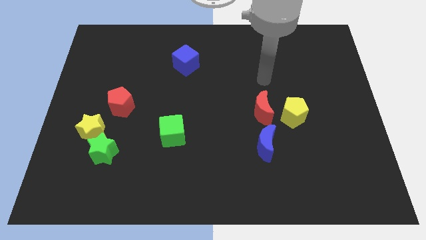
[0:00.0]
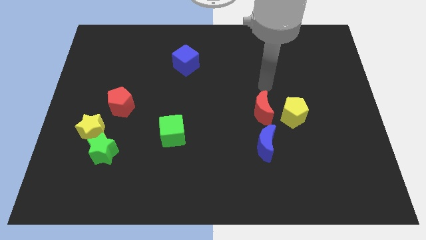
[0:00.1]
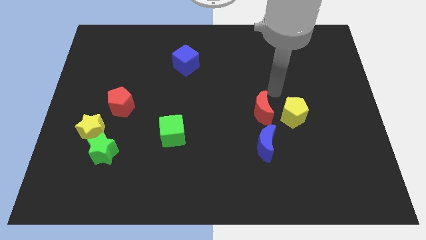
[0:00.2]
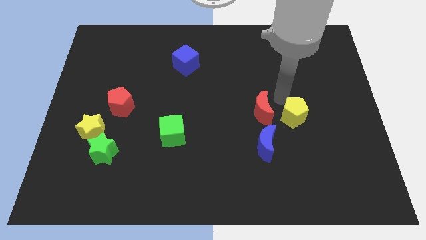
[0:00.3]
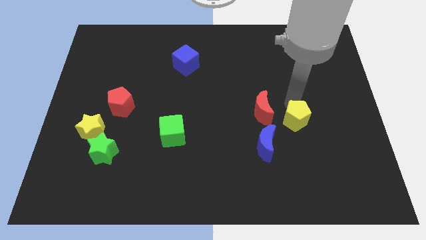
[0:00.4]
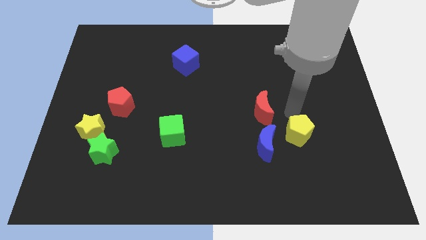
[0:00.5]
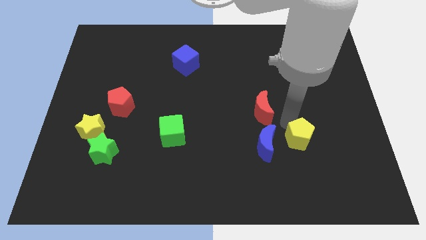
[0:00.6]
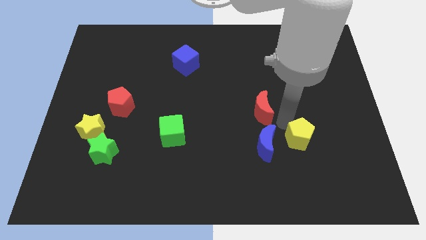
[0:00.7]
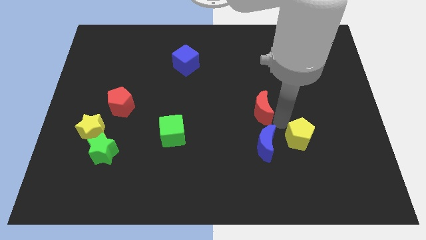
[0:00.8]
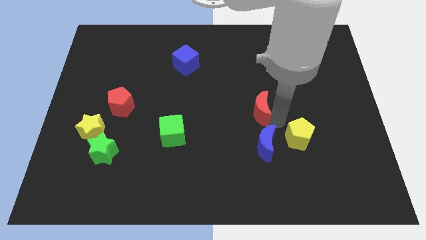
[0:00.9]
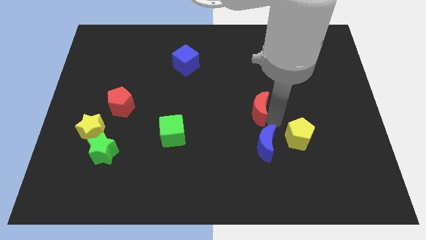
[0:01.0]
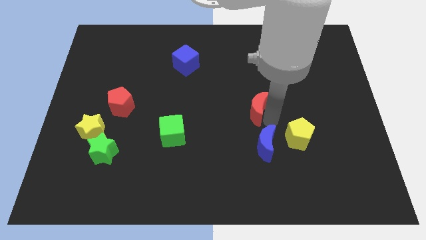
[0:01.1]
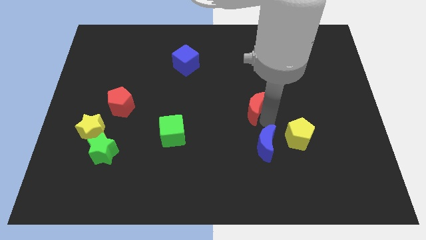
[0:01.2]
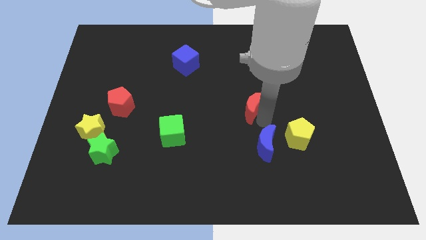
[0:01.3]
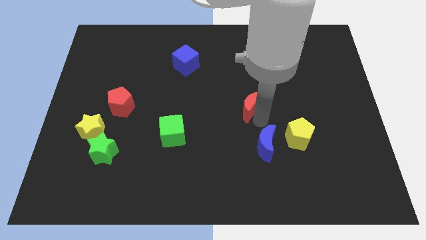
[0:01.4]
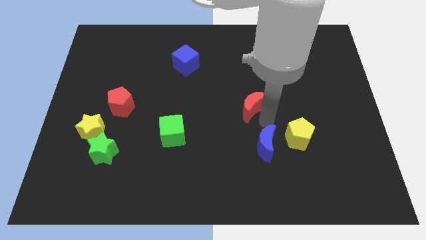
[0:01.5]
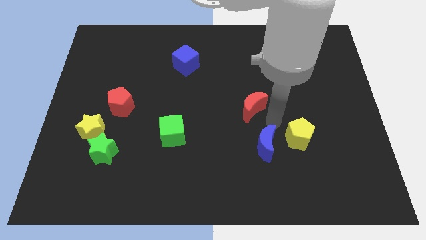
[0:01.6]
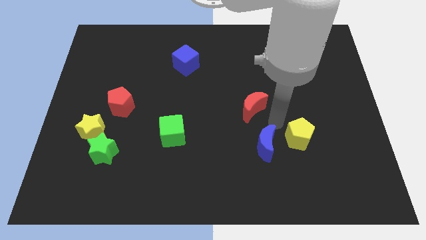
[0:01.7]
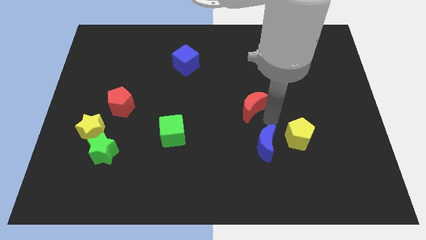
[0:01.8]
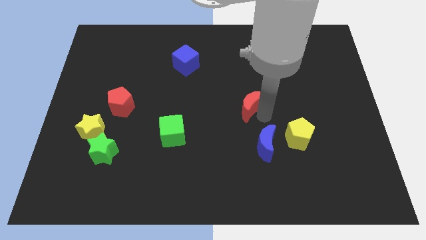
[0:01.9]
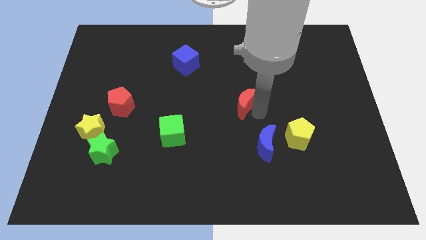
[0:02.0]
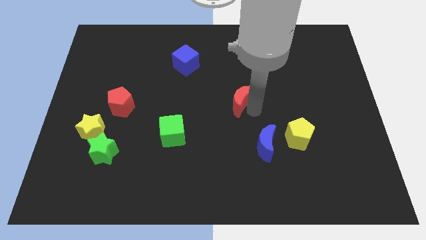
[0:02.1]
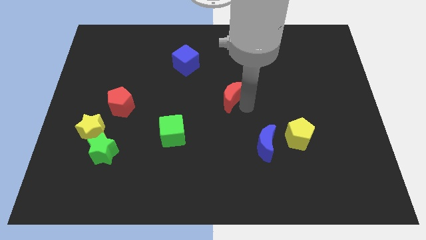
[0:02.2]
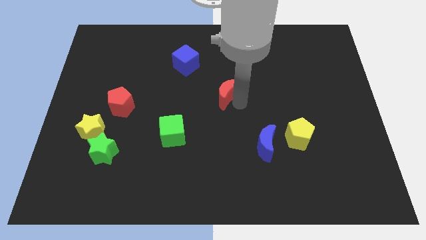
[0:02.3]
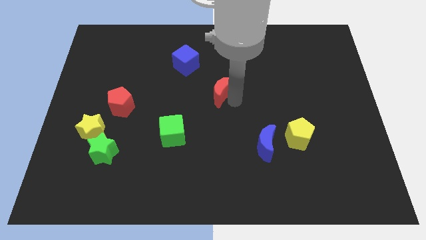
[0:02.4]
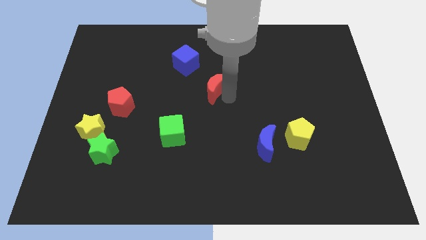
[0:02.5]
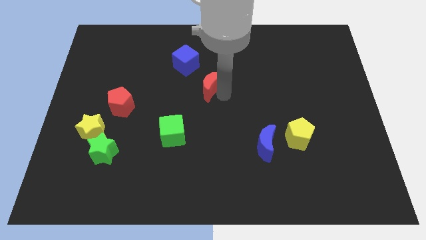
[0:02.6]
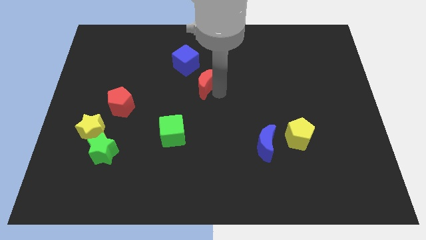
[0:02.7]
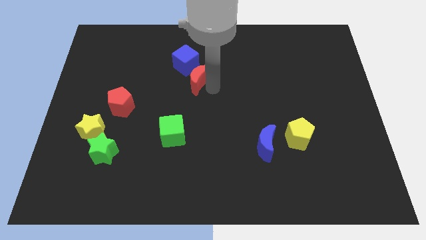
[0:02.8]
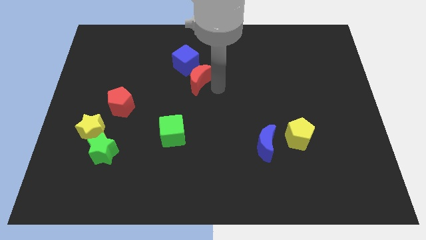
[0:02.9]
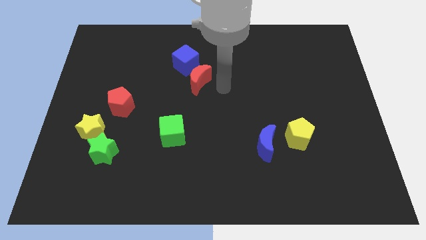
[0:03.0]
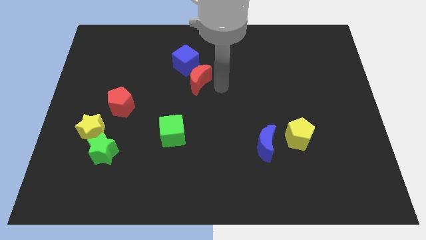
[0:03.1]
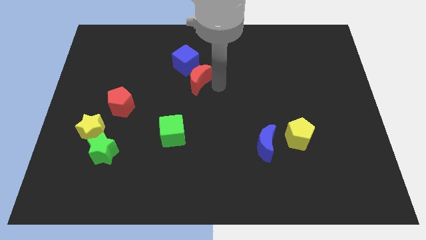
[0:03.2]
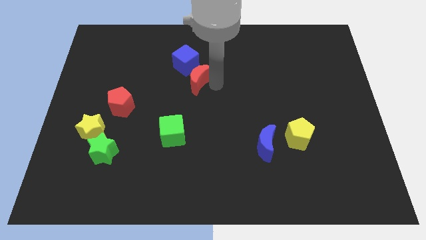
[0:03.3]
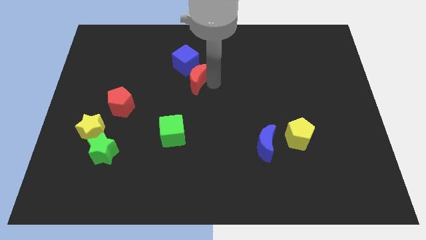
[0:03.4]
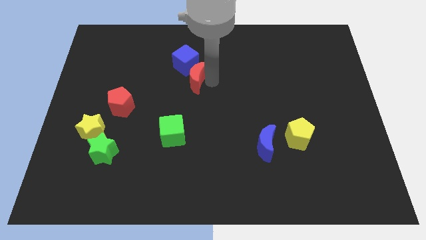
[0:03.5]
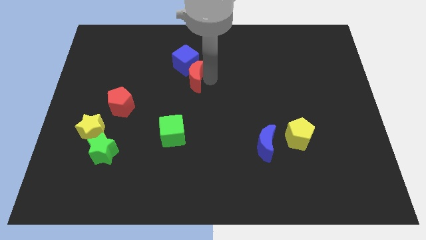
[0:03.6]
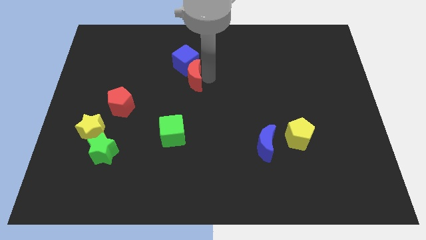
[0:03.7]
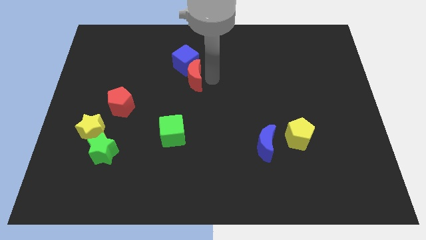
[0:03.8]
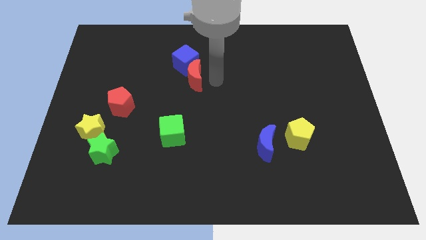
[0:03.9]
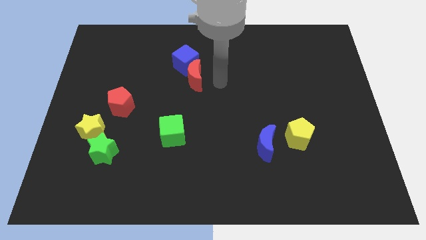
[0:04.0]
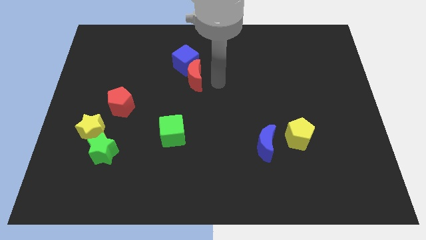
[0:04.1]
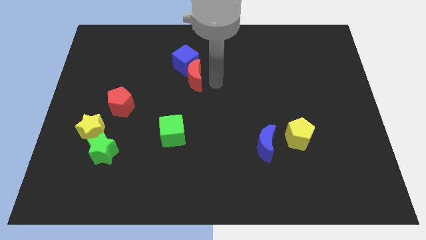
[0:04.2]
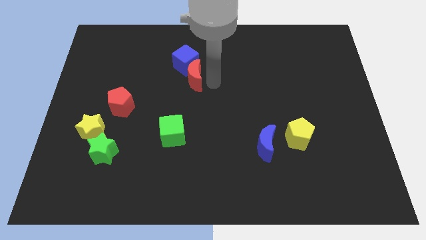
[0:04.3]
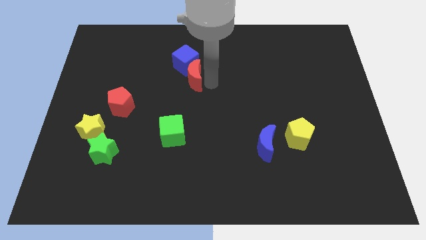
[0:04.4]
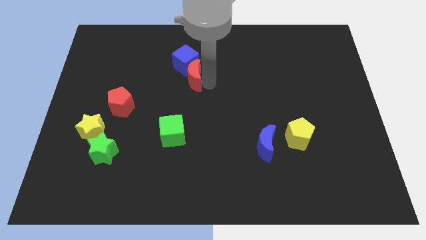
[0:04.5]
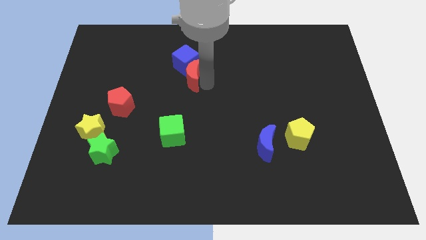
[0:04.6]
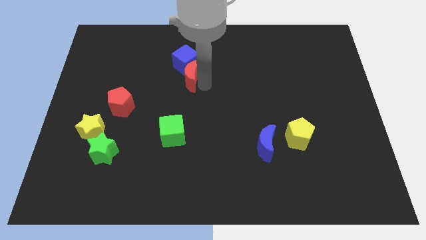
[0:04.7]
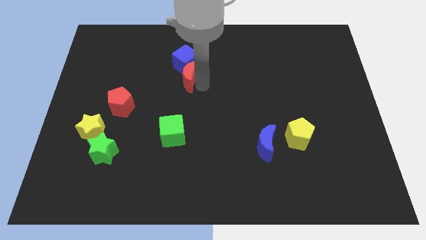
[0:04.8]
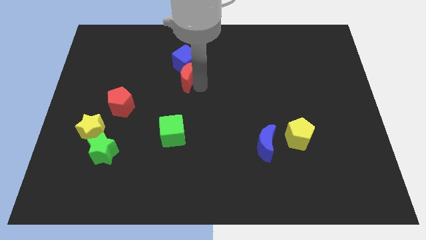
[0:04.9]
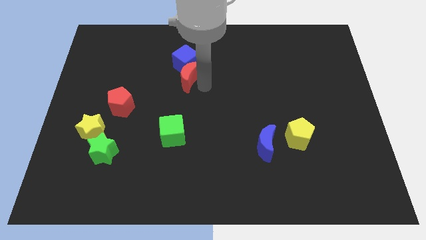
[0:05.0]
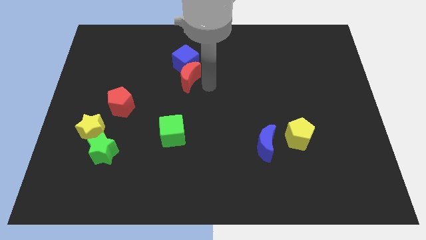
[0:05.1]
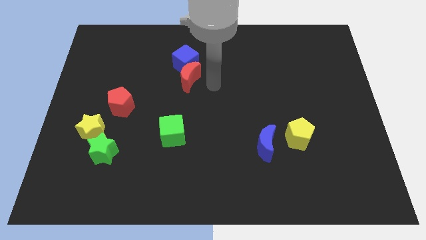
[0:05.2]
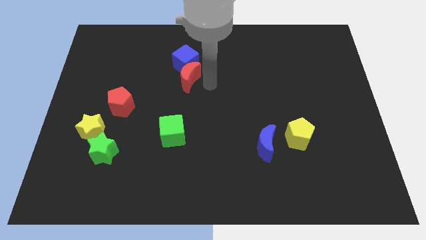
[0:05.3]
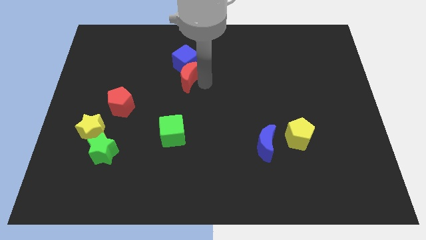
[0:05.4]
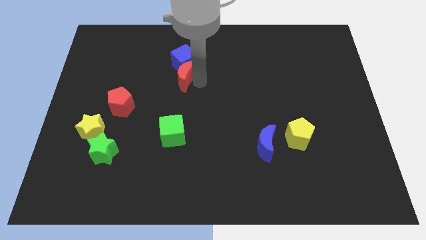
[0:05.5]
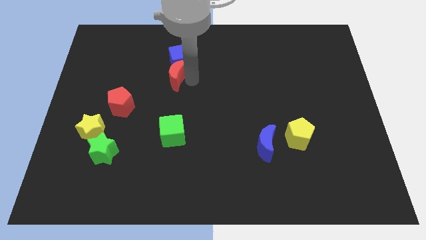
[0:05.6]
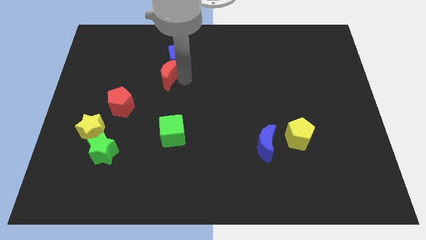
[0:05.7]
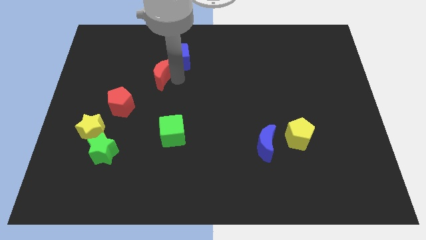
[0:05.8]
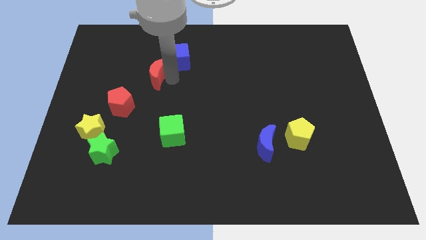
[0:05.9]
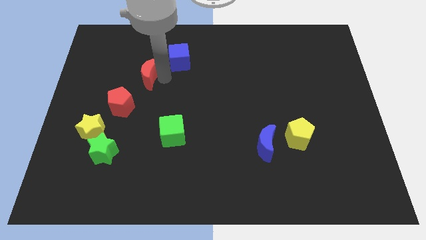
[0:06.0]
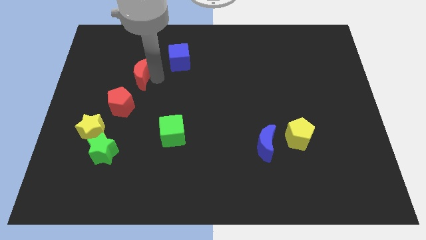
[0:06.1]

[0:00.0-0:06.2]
put the red moon above the red pentagon

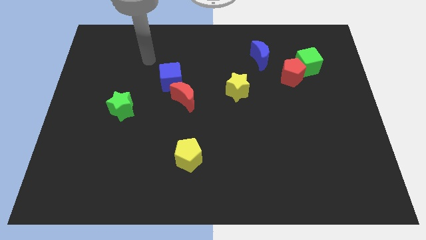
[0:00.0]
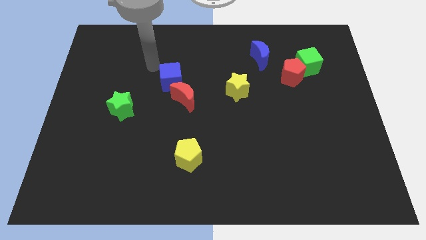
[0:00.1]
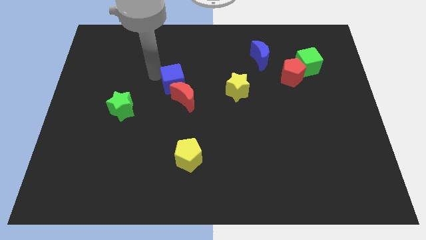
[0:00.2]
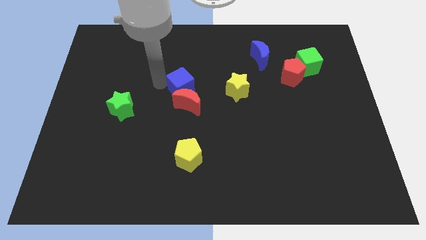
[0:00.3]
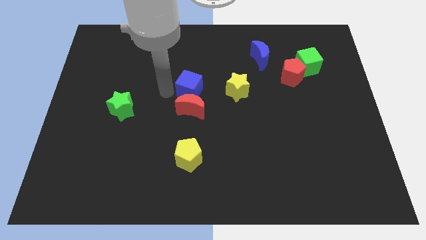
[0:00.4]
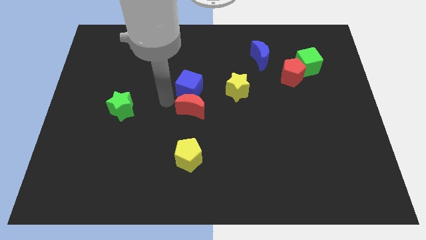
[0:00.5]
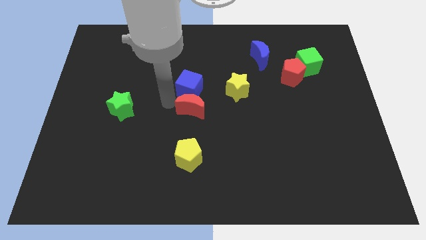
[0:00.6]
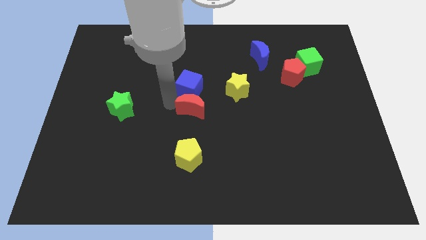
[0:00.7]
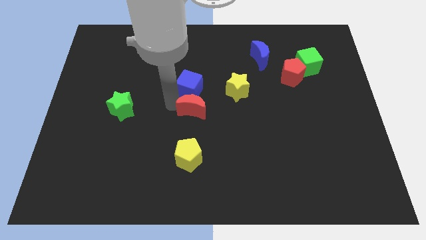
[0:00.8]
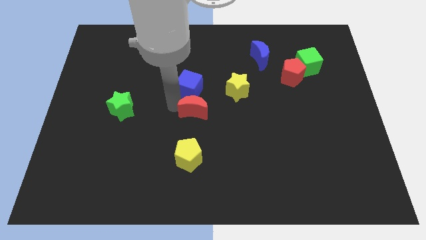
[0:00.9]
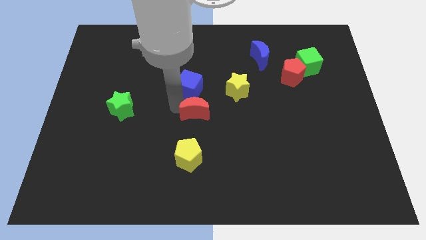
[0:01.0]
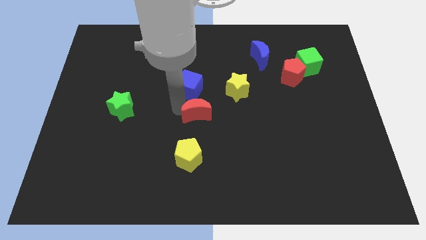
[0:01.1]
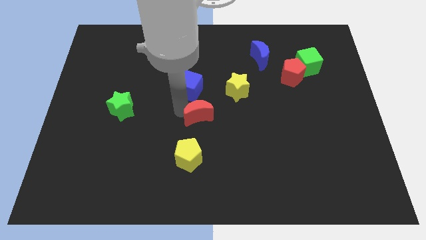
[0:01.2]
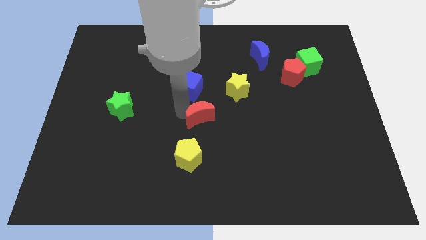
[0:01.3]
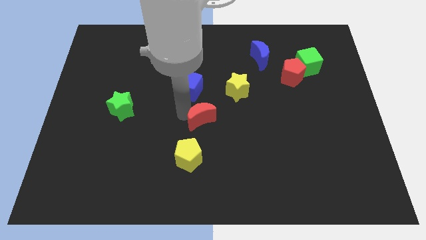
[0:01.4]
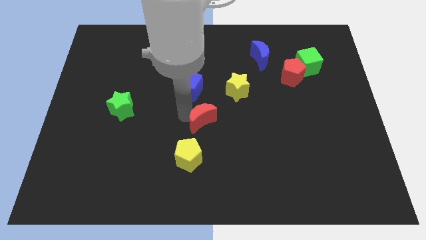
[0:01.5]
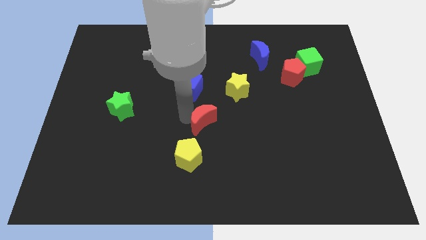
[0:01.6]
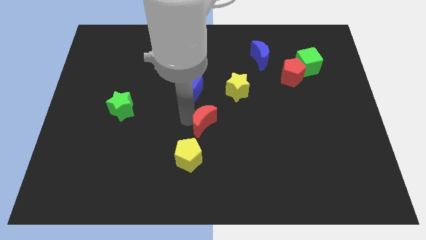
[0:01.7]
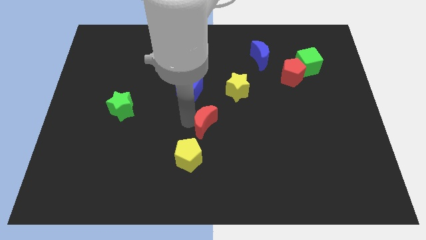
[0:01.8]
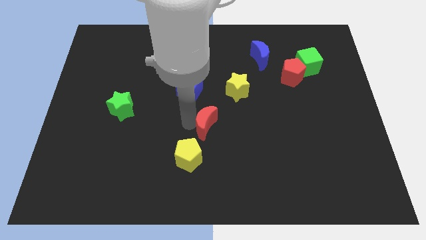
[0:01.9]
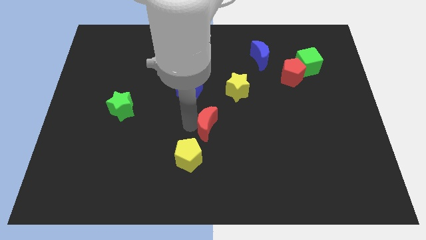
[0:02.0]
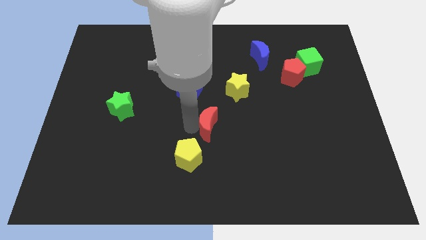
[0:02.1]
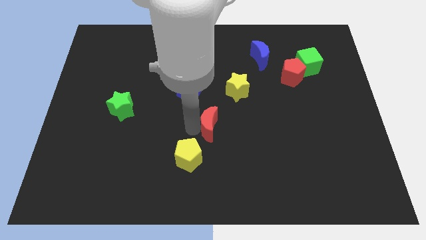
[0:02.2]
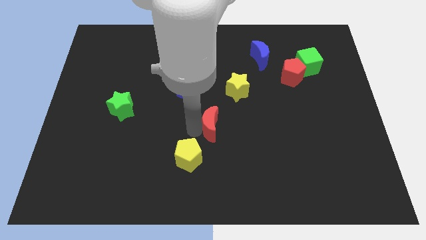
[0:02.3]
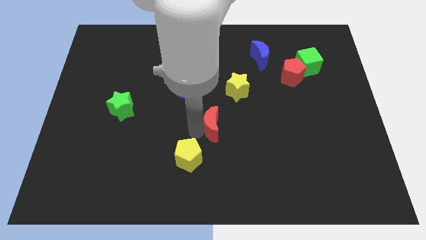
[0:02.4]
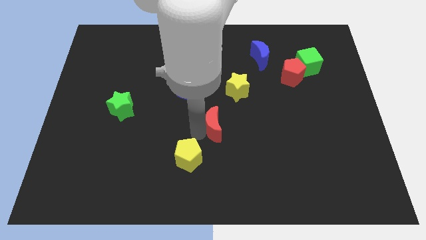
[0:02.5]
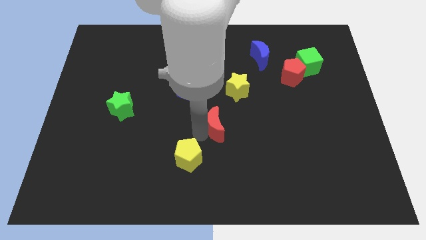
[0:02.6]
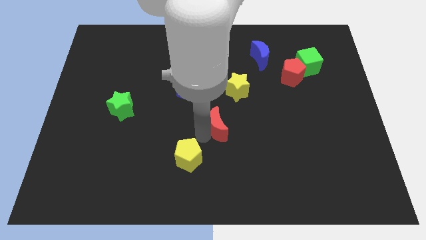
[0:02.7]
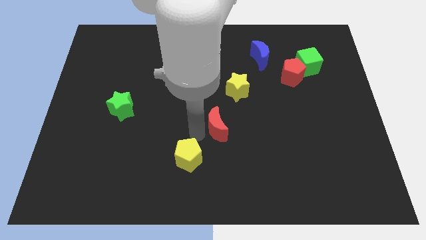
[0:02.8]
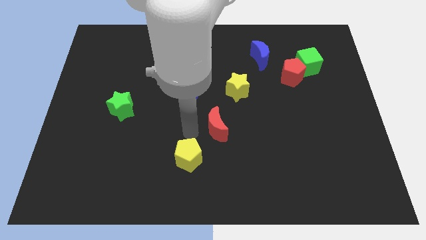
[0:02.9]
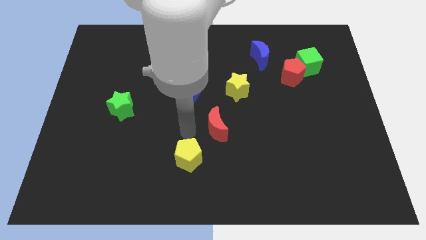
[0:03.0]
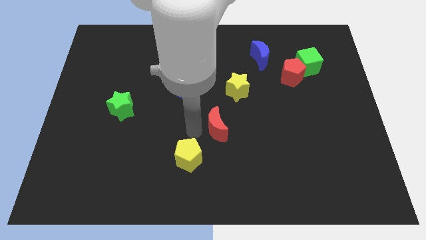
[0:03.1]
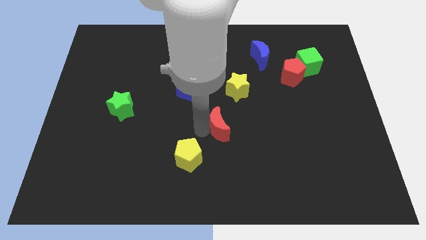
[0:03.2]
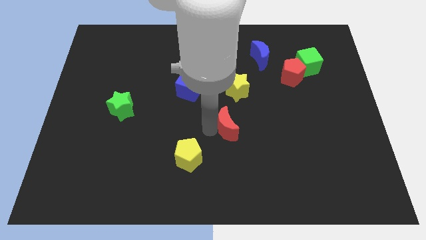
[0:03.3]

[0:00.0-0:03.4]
slide the red moon to the bottom side of the yellow star
